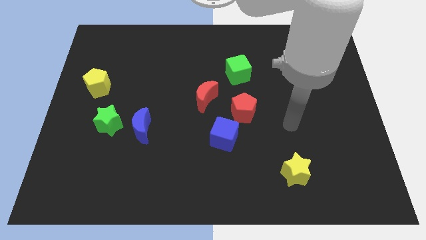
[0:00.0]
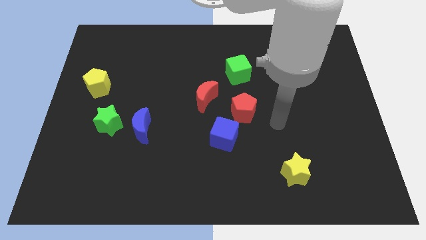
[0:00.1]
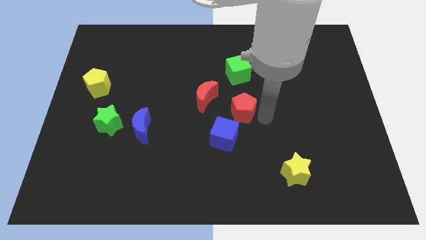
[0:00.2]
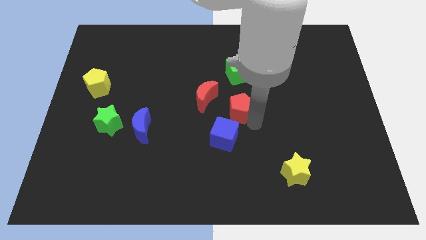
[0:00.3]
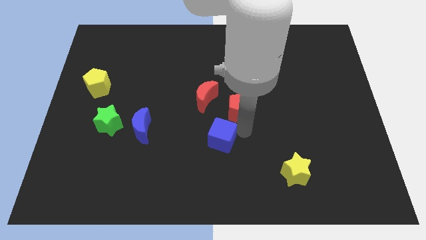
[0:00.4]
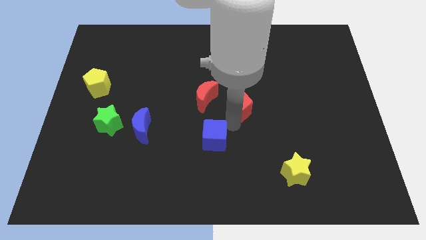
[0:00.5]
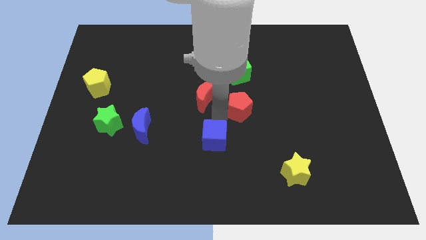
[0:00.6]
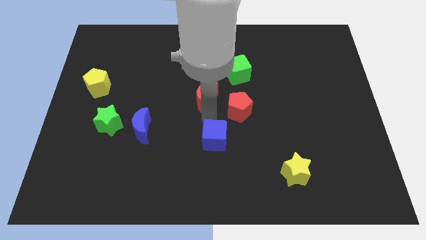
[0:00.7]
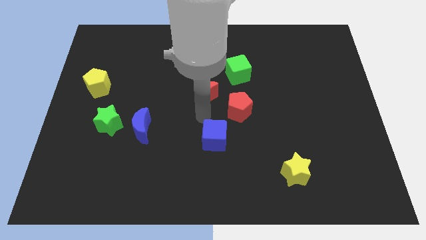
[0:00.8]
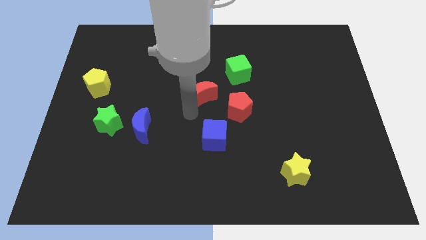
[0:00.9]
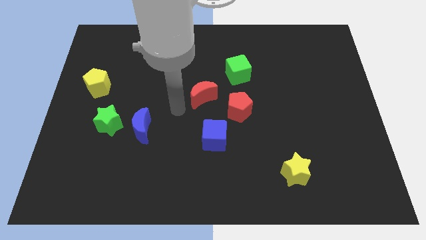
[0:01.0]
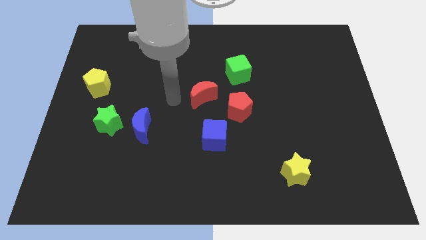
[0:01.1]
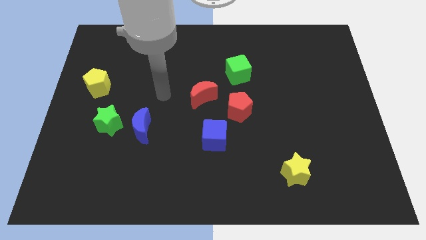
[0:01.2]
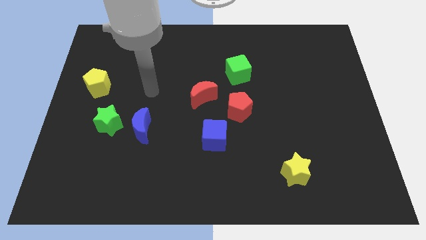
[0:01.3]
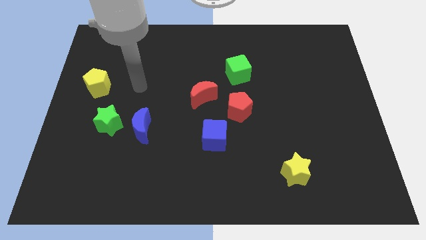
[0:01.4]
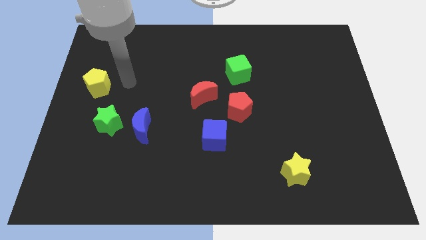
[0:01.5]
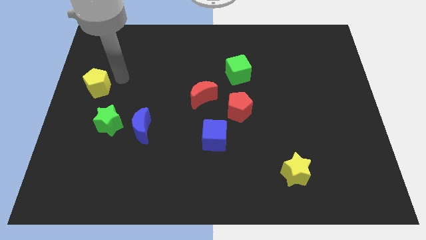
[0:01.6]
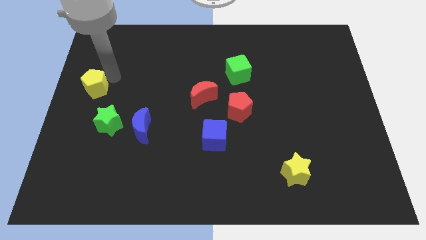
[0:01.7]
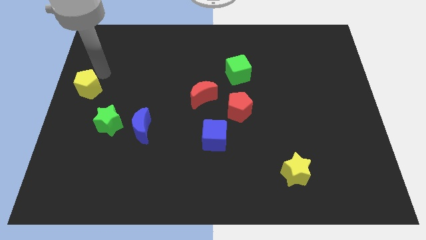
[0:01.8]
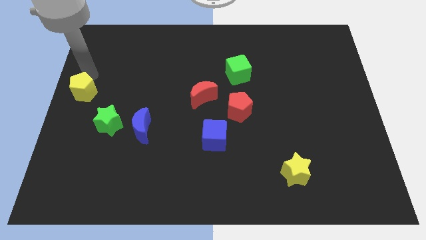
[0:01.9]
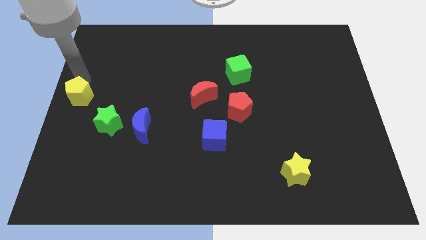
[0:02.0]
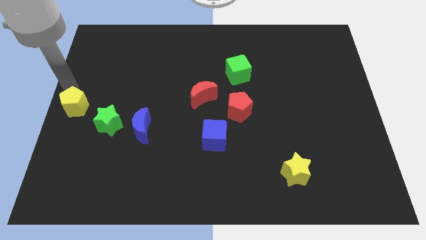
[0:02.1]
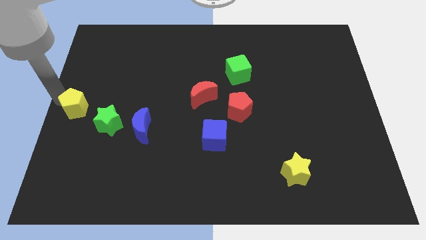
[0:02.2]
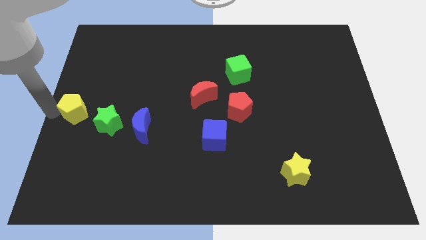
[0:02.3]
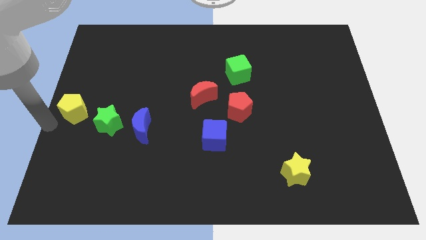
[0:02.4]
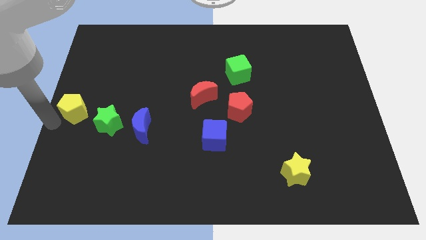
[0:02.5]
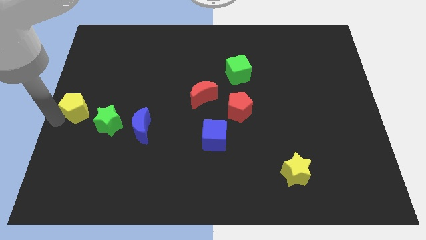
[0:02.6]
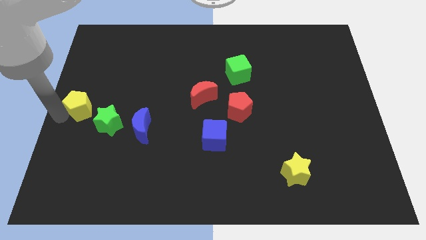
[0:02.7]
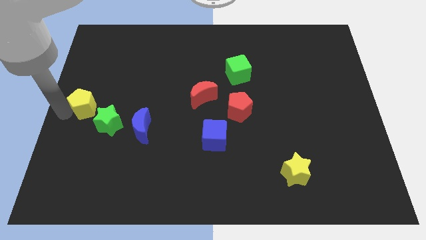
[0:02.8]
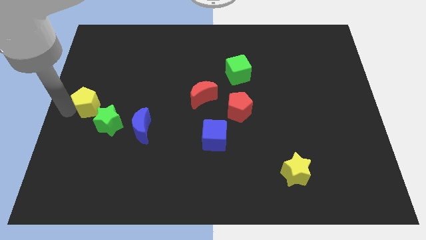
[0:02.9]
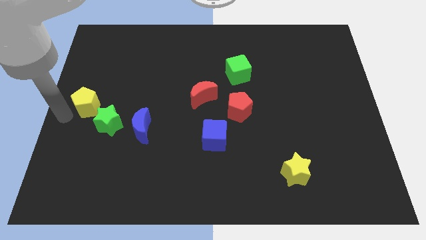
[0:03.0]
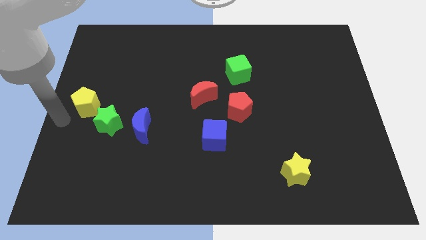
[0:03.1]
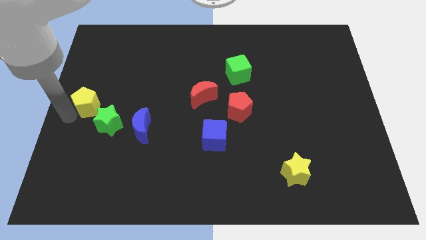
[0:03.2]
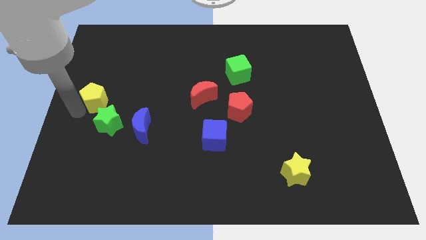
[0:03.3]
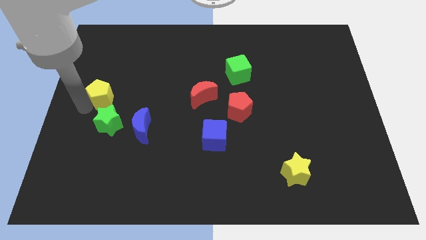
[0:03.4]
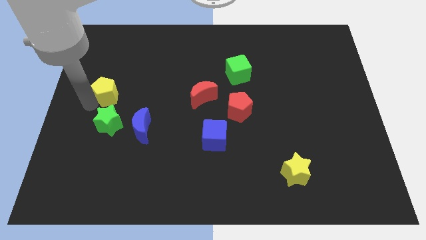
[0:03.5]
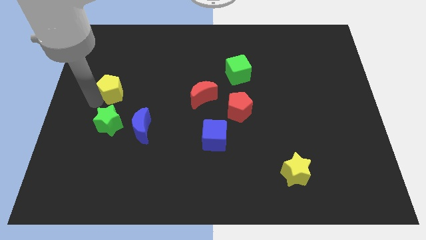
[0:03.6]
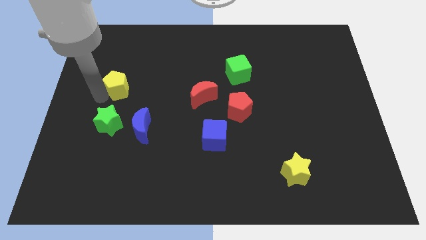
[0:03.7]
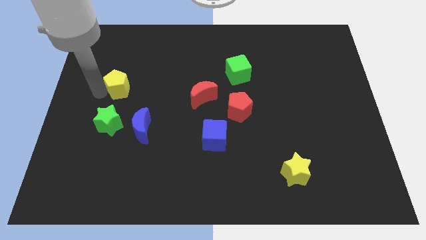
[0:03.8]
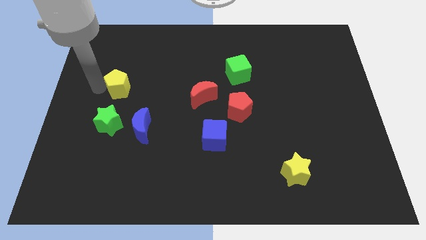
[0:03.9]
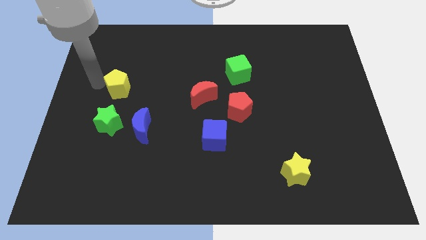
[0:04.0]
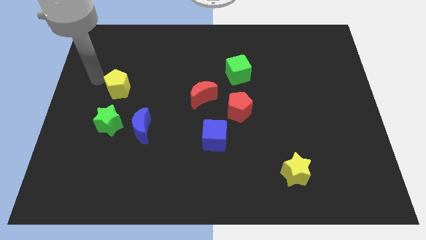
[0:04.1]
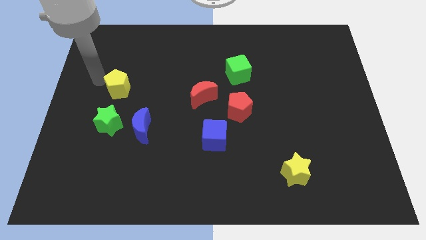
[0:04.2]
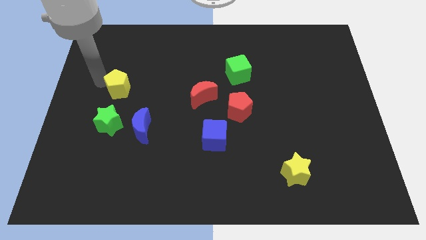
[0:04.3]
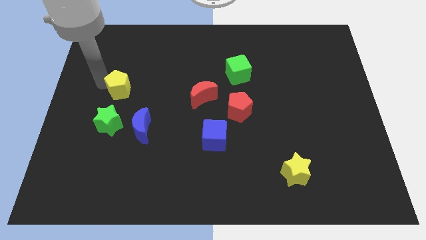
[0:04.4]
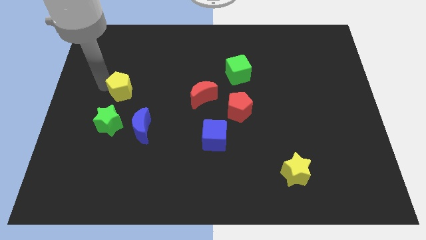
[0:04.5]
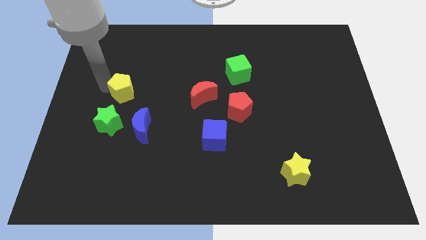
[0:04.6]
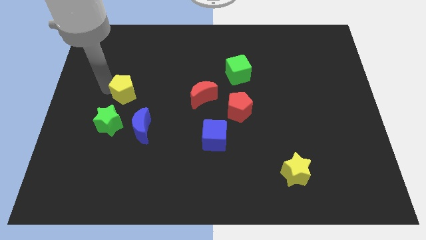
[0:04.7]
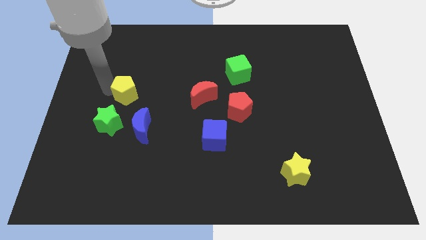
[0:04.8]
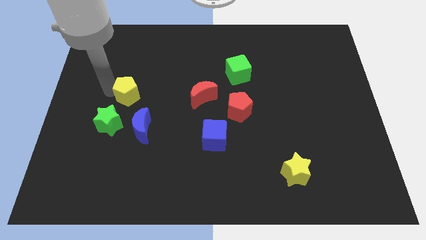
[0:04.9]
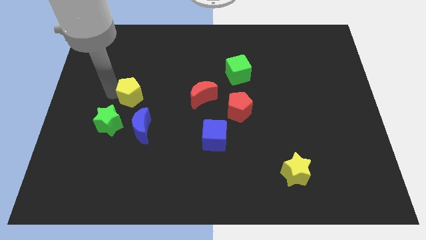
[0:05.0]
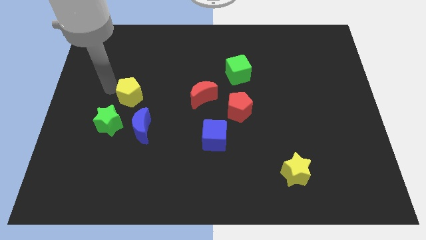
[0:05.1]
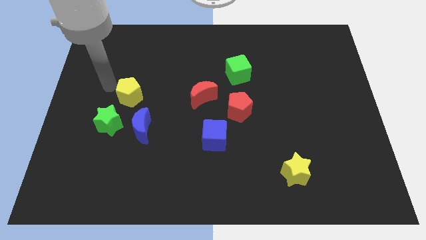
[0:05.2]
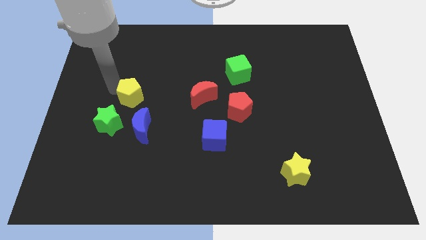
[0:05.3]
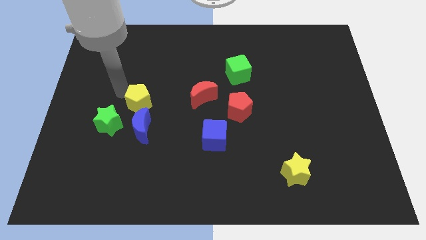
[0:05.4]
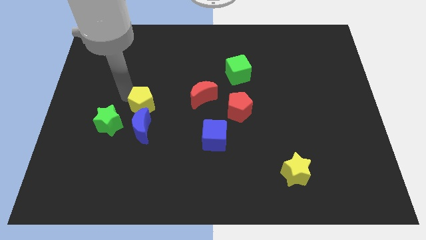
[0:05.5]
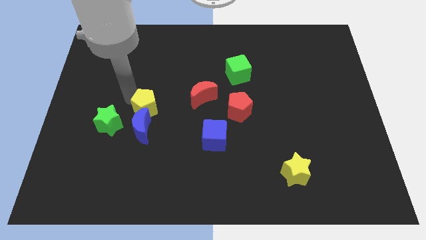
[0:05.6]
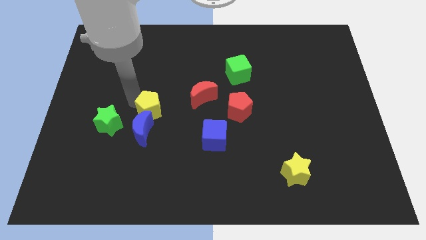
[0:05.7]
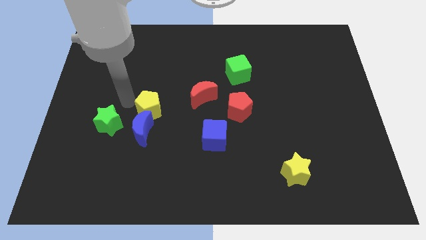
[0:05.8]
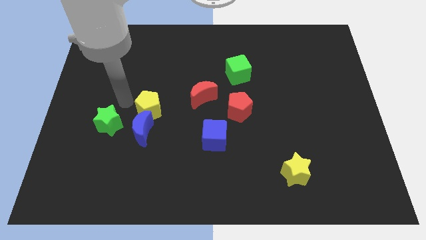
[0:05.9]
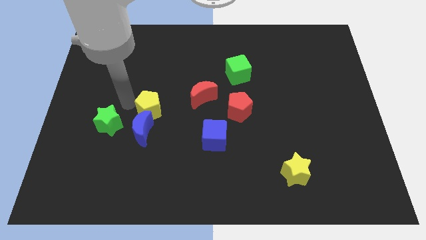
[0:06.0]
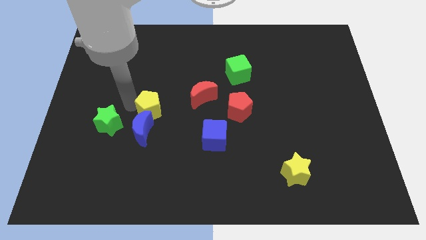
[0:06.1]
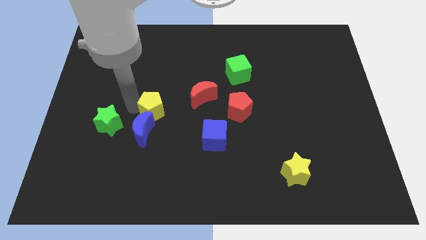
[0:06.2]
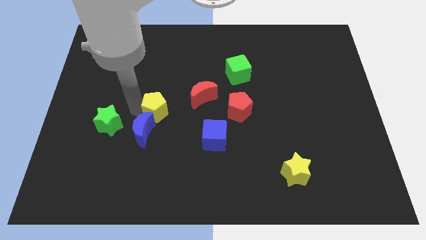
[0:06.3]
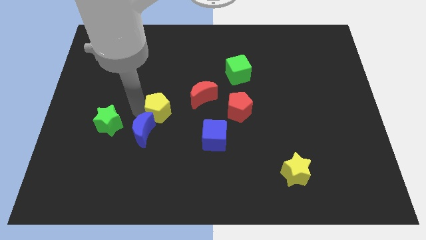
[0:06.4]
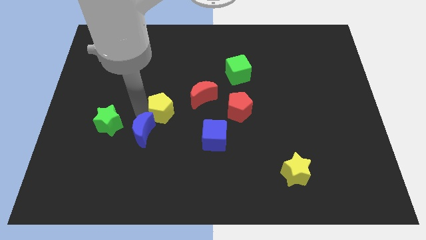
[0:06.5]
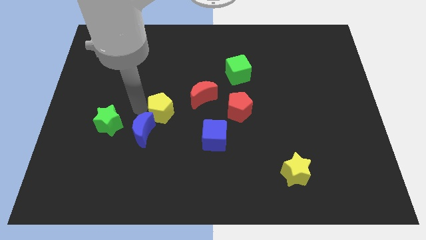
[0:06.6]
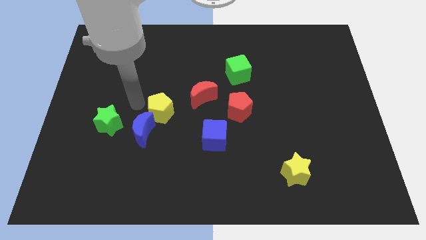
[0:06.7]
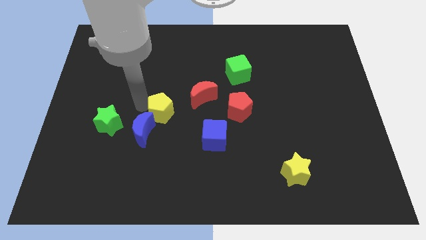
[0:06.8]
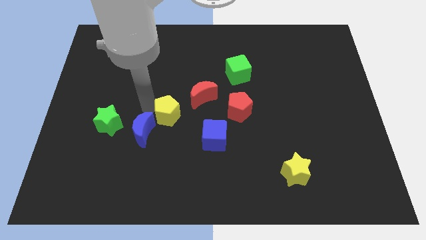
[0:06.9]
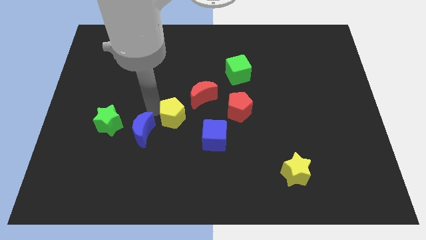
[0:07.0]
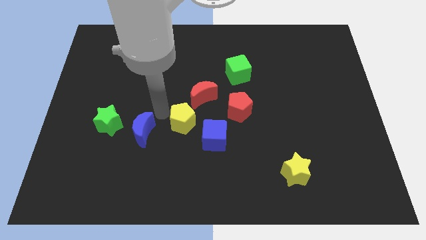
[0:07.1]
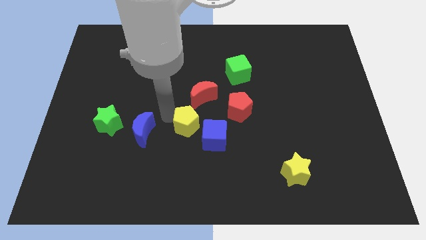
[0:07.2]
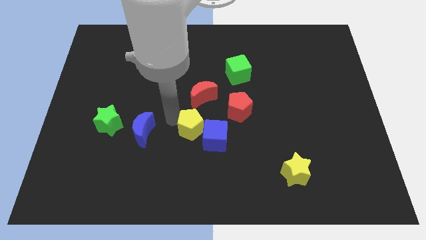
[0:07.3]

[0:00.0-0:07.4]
put the yellow pentagon to the blue cube
